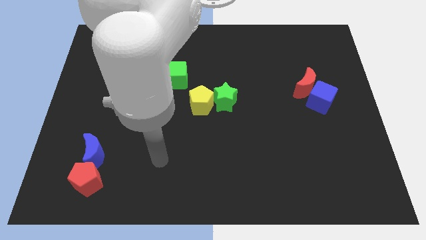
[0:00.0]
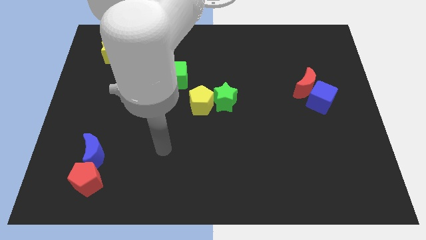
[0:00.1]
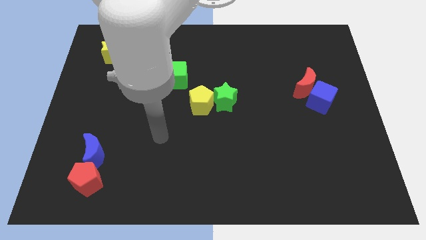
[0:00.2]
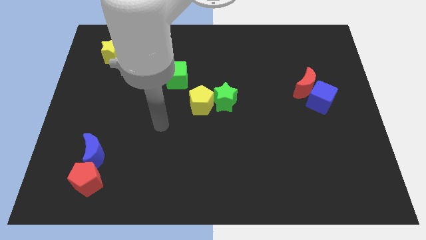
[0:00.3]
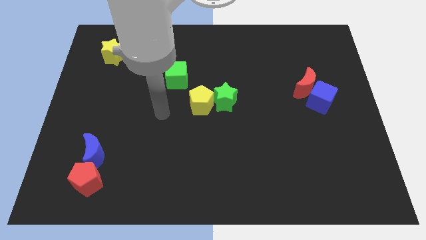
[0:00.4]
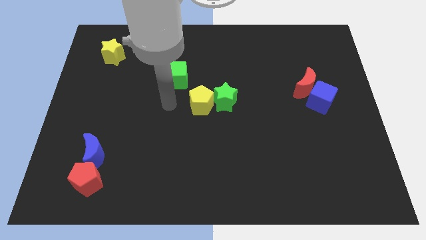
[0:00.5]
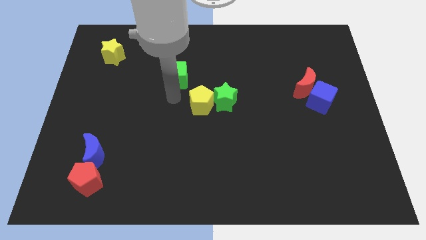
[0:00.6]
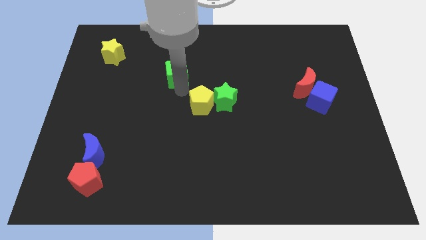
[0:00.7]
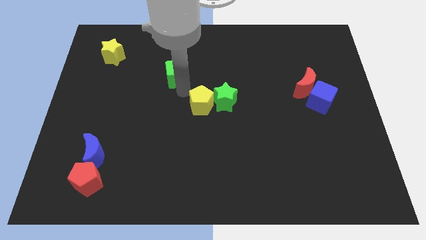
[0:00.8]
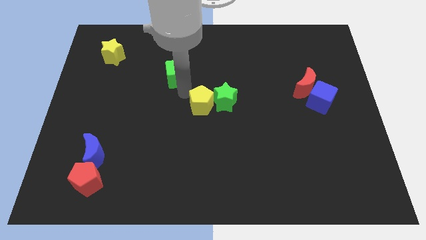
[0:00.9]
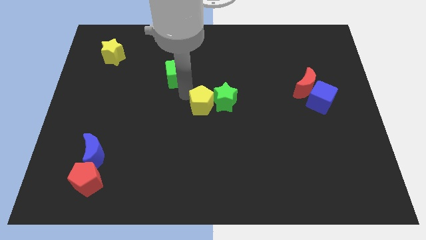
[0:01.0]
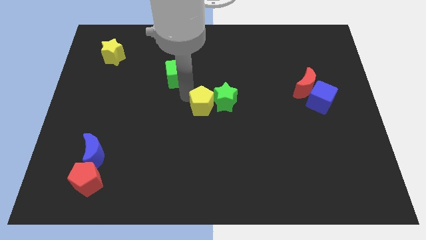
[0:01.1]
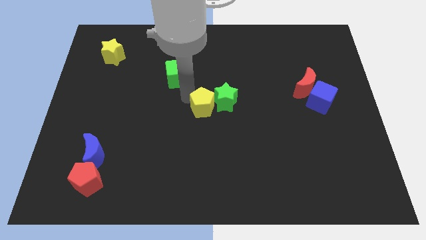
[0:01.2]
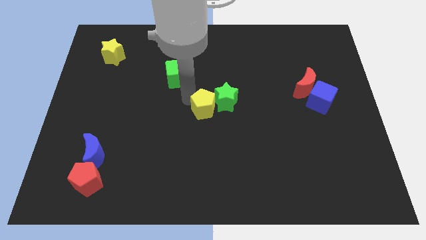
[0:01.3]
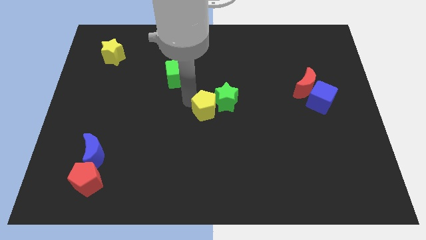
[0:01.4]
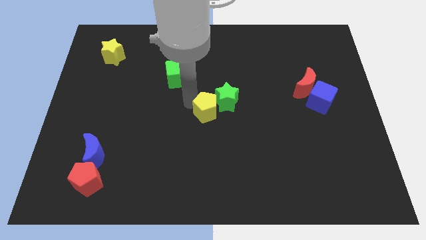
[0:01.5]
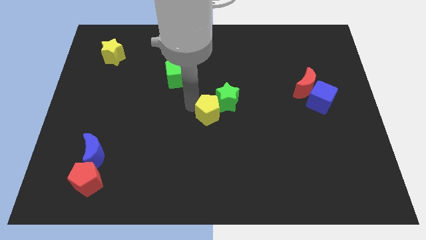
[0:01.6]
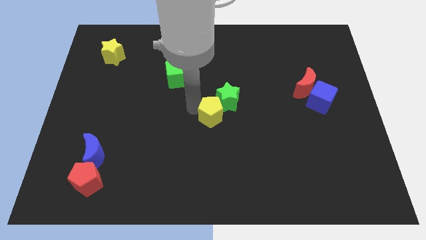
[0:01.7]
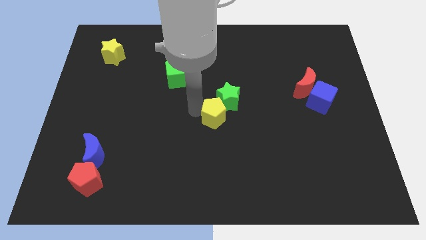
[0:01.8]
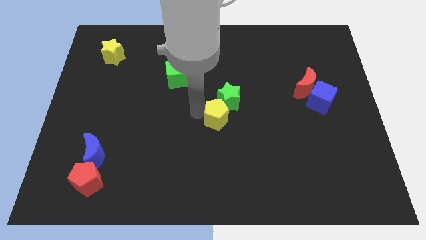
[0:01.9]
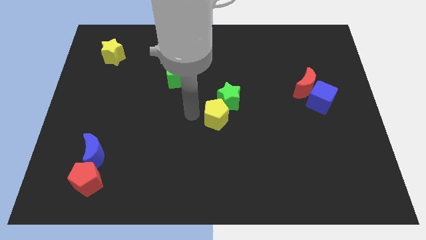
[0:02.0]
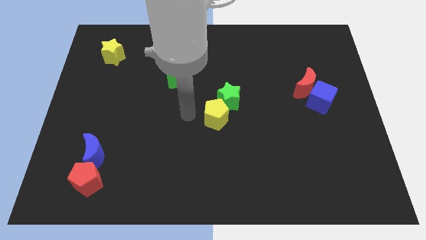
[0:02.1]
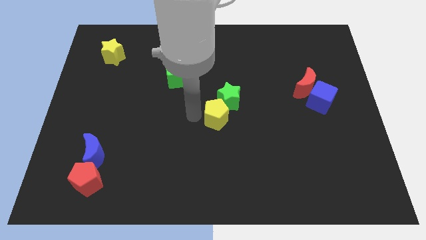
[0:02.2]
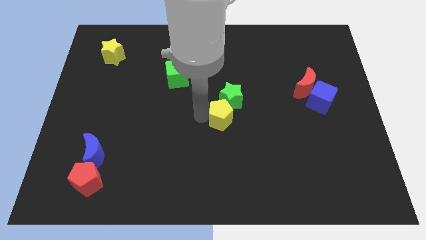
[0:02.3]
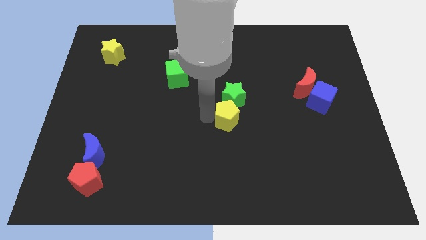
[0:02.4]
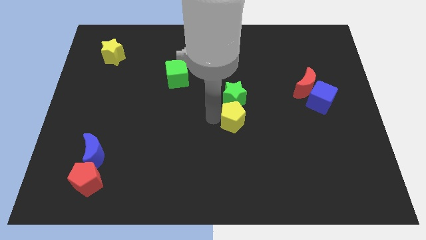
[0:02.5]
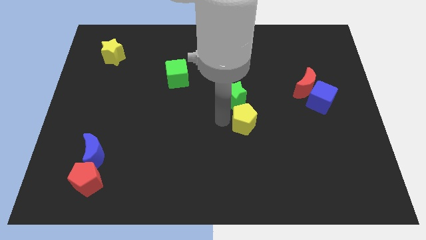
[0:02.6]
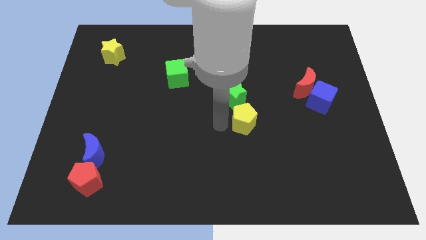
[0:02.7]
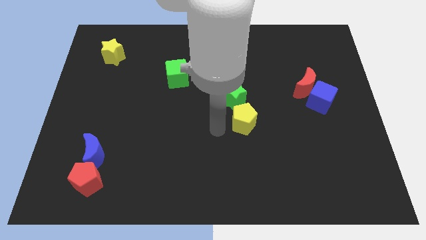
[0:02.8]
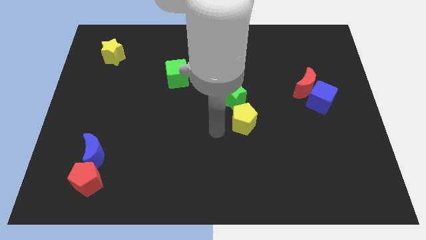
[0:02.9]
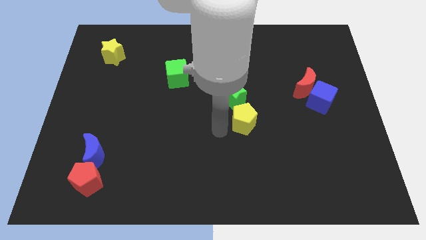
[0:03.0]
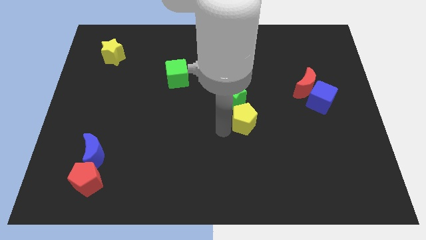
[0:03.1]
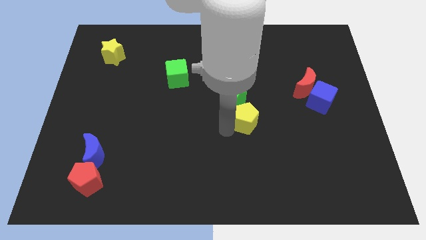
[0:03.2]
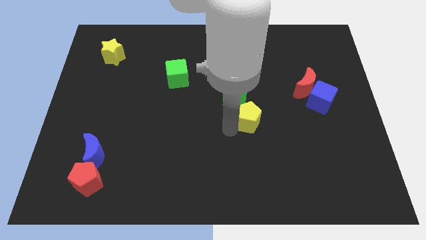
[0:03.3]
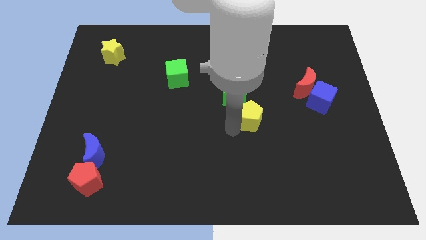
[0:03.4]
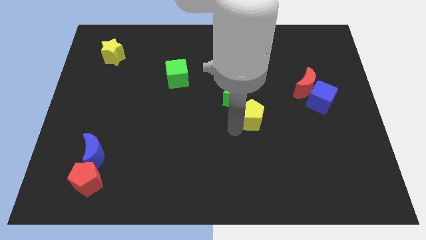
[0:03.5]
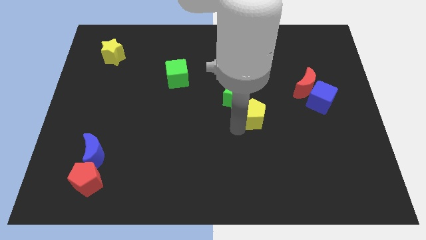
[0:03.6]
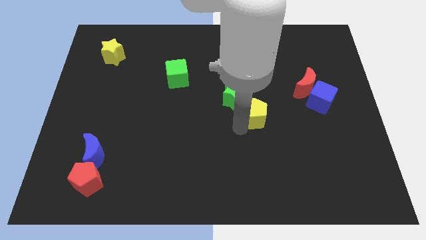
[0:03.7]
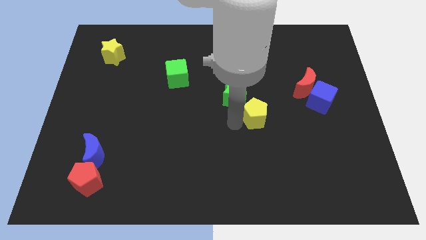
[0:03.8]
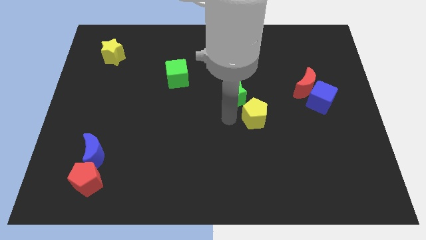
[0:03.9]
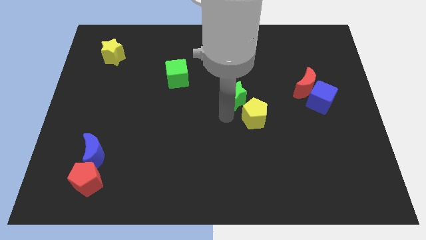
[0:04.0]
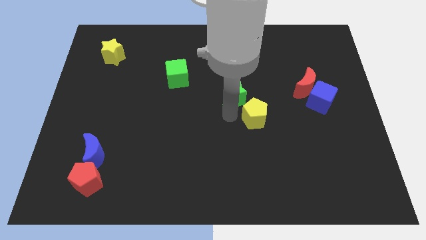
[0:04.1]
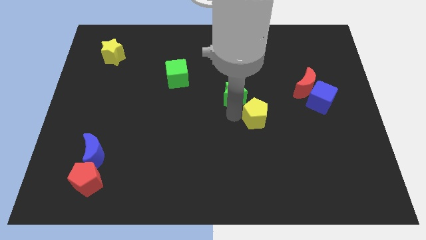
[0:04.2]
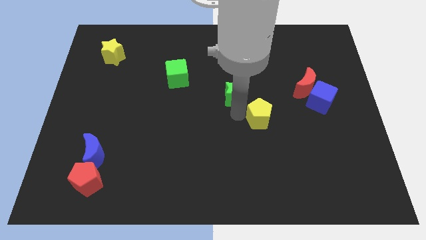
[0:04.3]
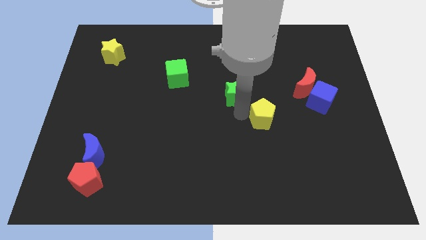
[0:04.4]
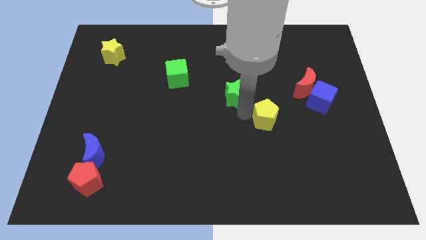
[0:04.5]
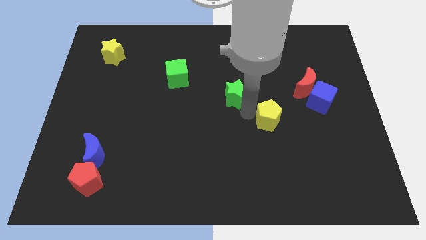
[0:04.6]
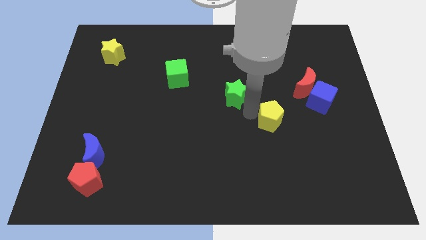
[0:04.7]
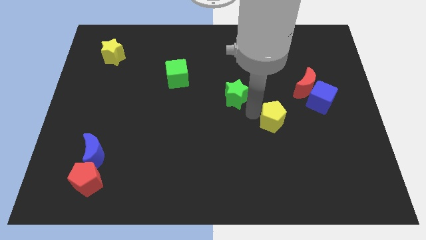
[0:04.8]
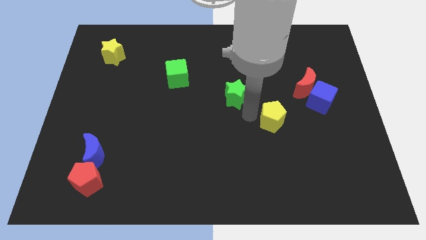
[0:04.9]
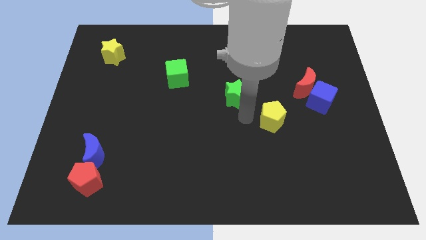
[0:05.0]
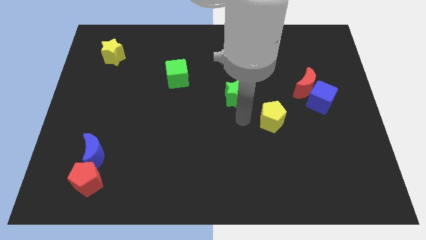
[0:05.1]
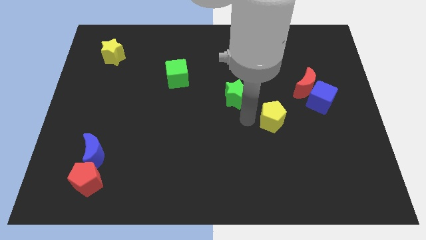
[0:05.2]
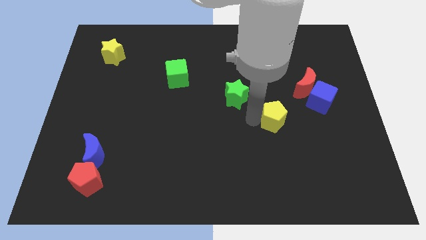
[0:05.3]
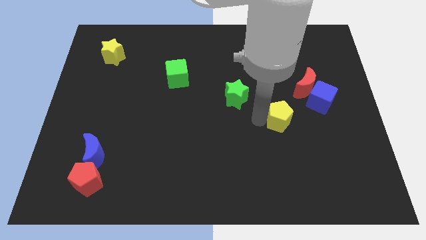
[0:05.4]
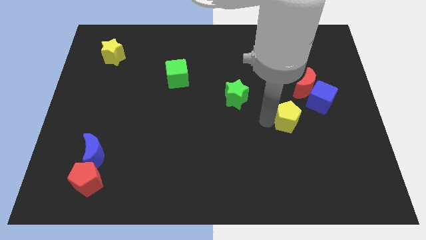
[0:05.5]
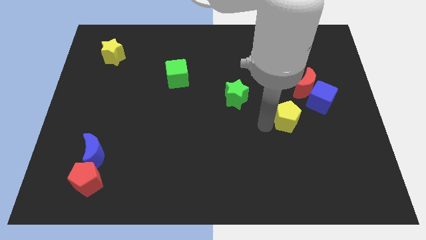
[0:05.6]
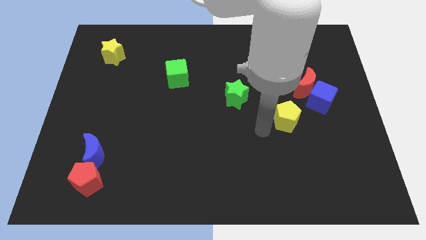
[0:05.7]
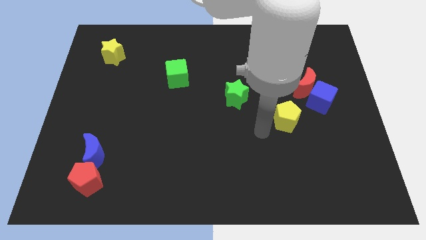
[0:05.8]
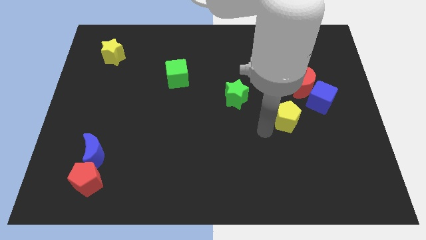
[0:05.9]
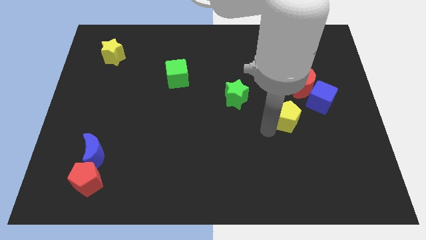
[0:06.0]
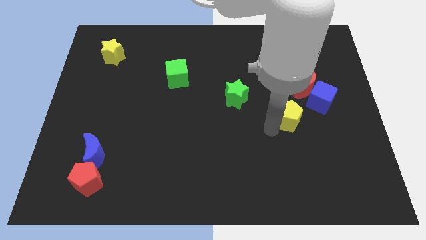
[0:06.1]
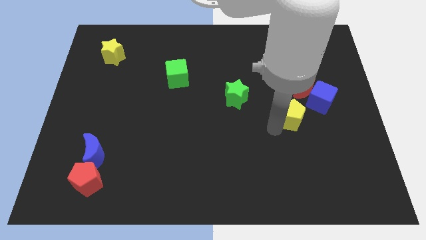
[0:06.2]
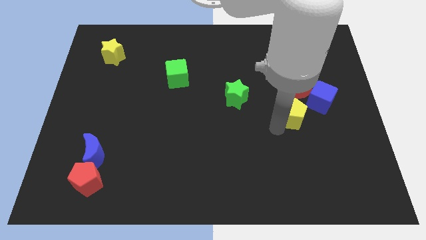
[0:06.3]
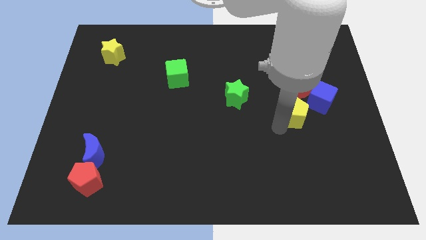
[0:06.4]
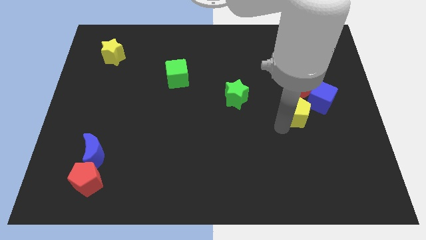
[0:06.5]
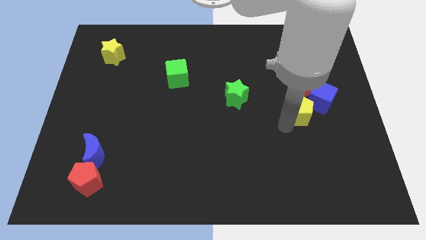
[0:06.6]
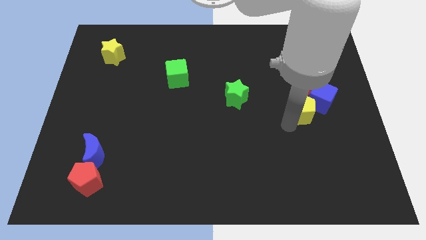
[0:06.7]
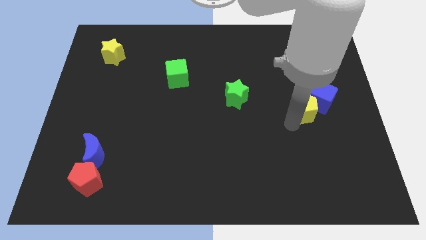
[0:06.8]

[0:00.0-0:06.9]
put the yellow pentagon close to the blue cube
